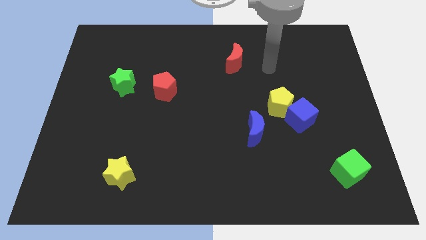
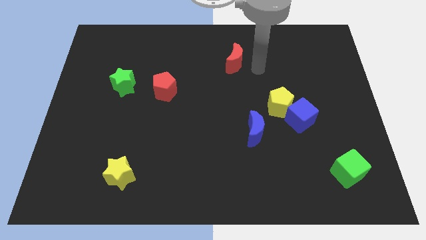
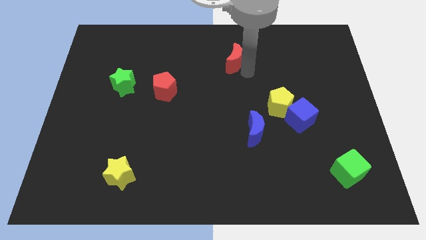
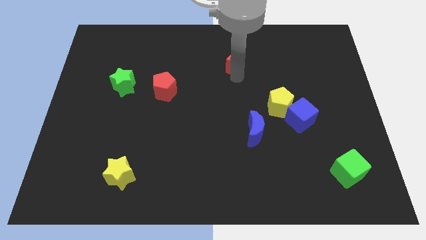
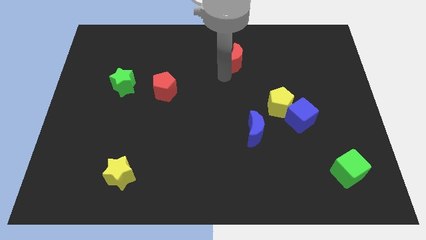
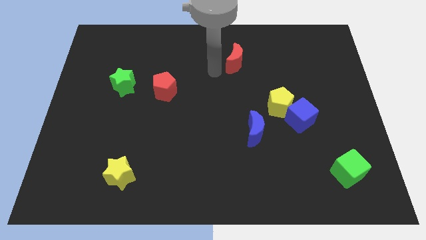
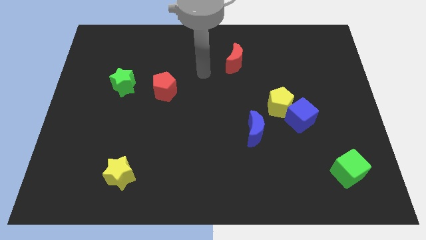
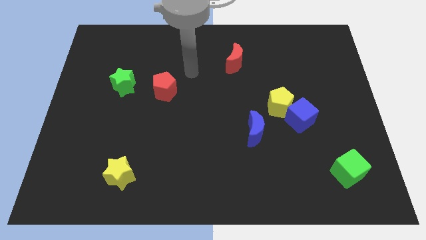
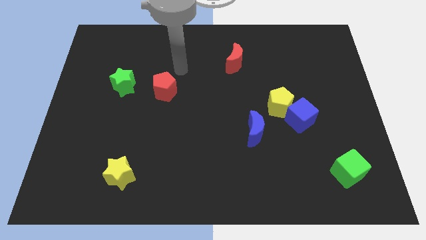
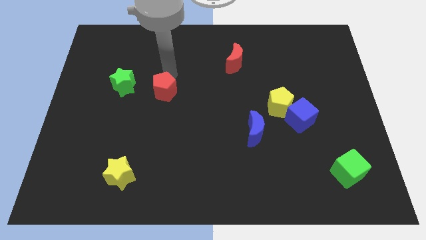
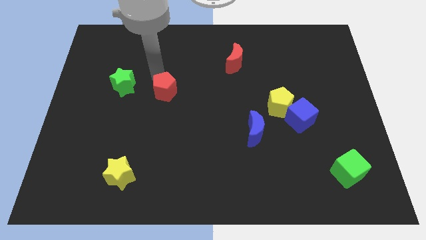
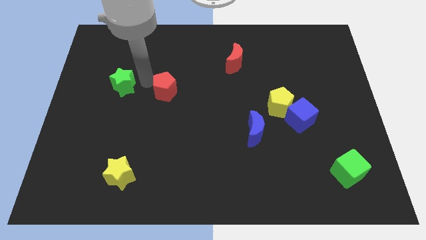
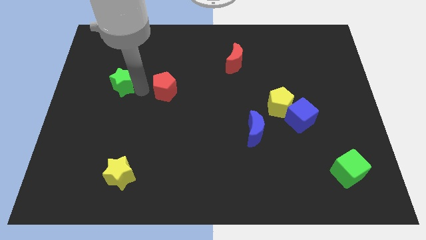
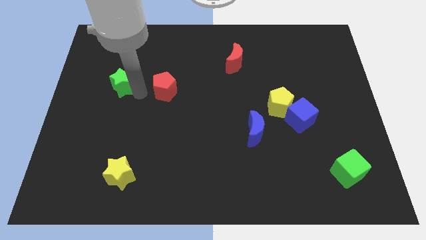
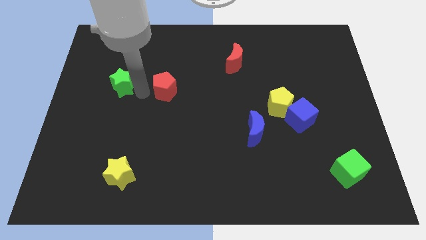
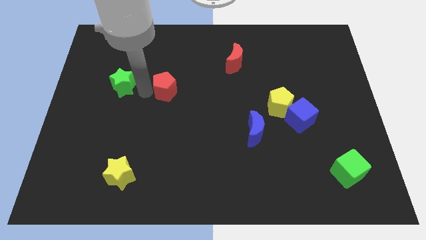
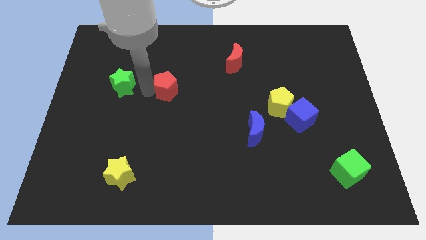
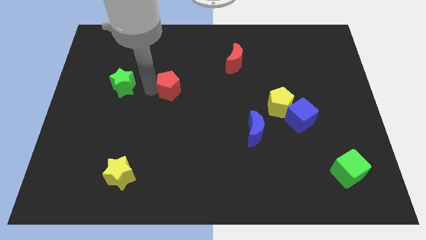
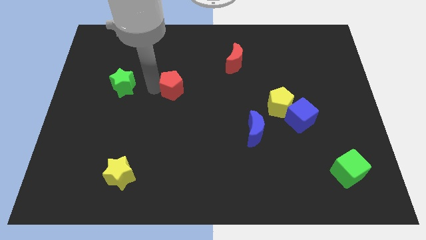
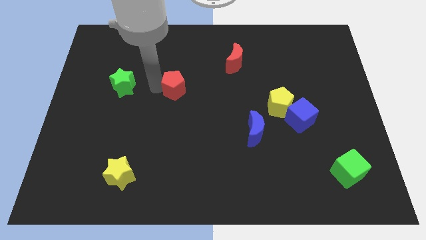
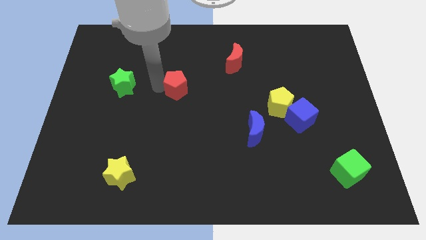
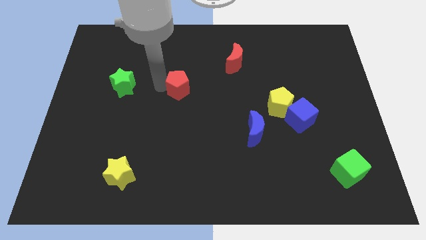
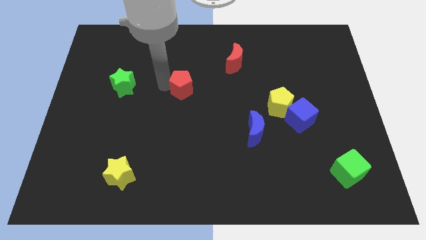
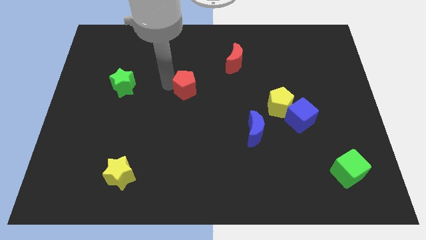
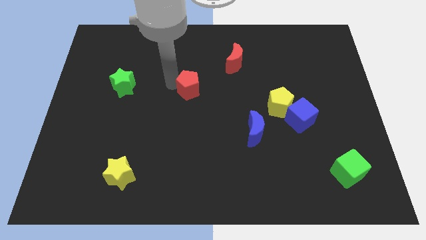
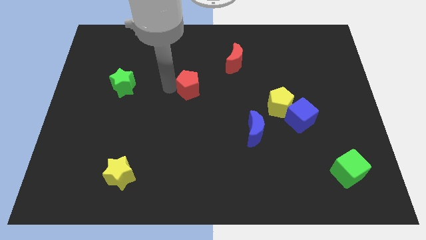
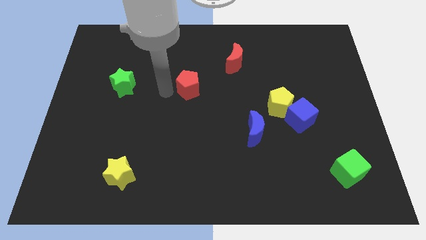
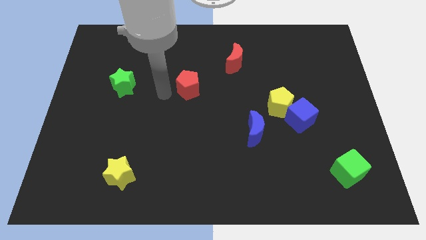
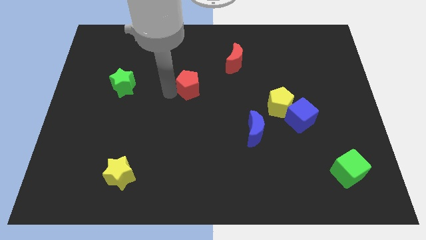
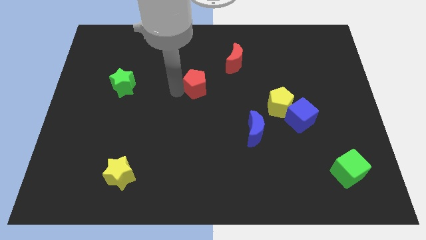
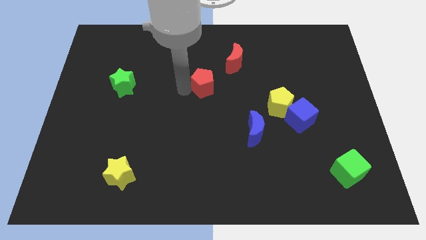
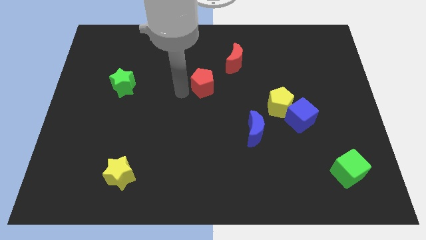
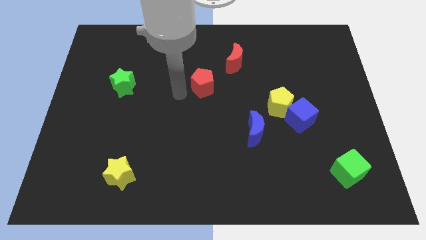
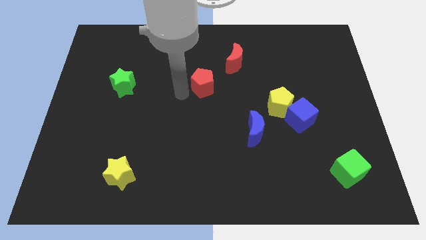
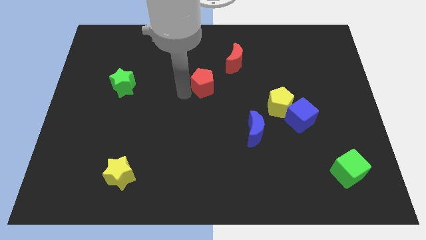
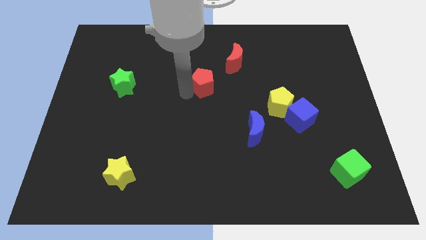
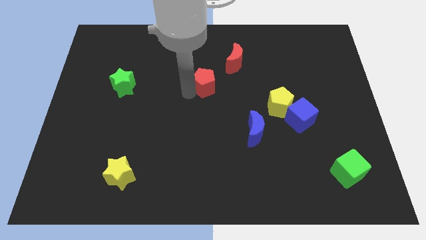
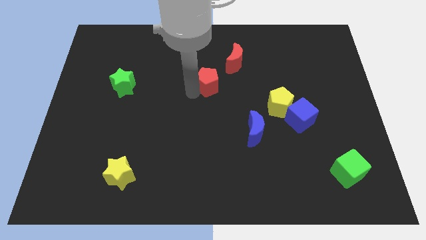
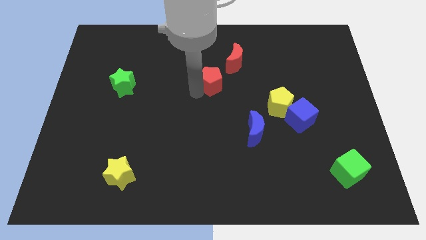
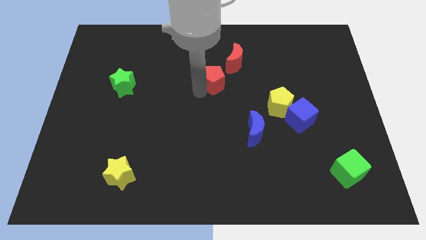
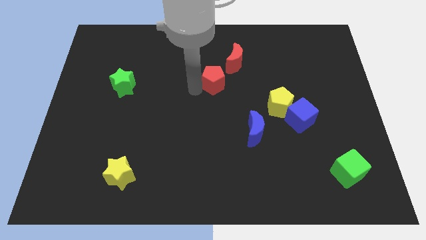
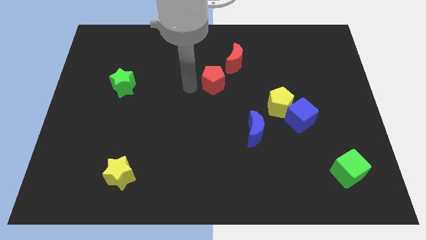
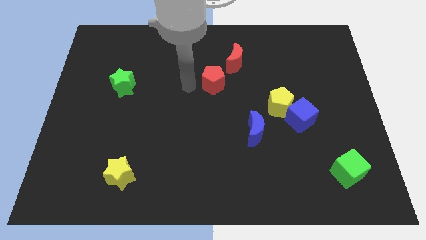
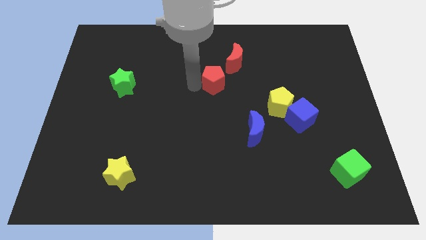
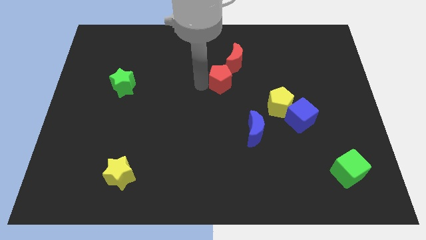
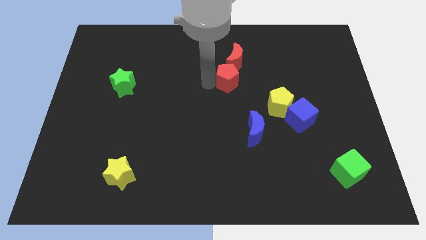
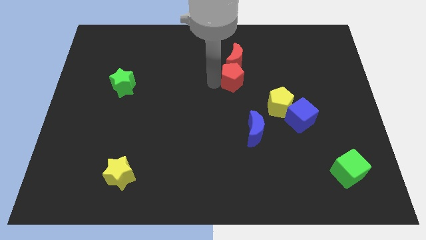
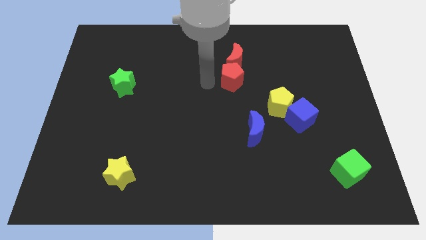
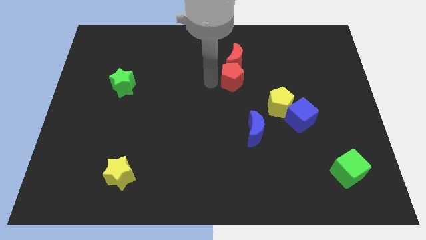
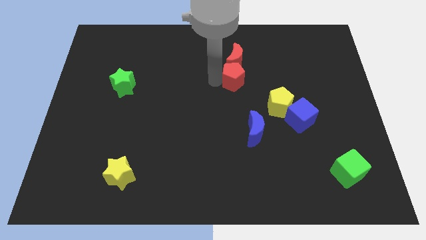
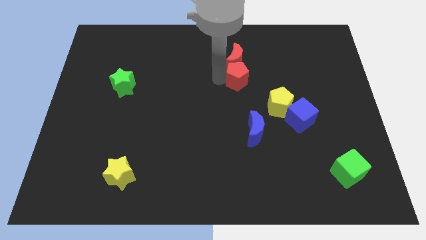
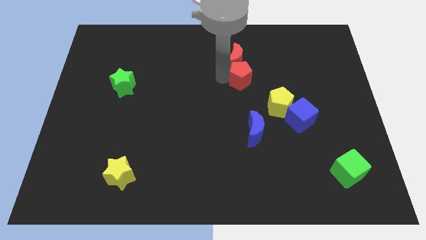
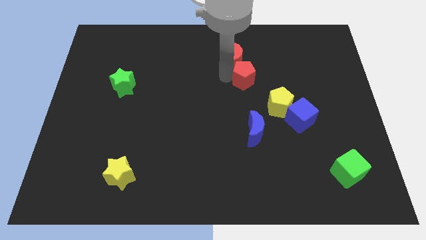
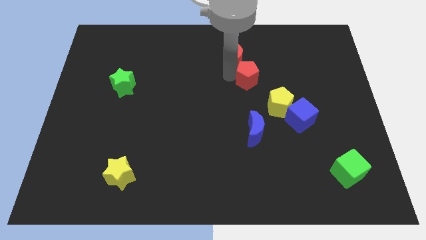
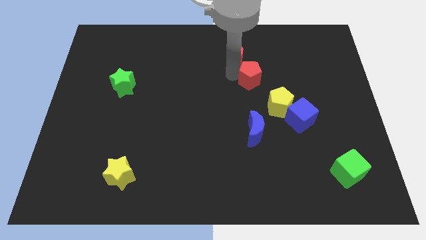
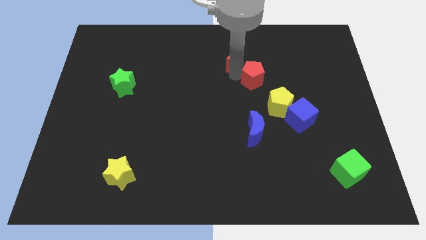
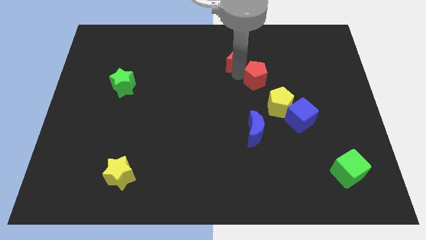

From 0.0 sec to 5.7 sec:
move the red pentagon to the top of the yellow pentagon
